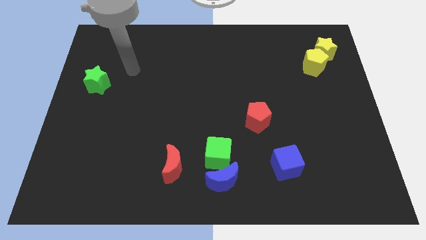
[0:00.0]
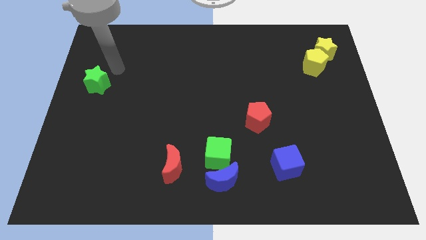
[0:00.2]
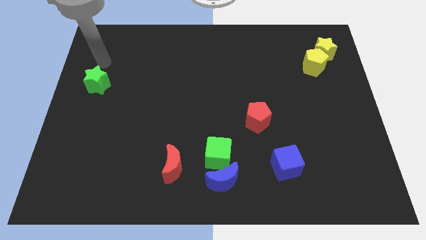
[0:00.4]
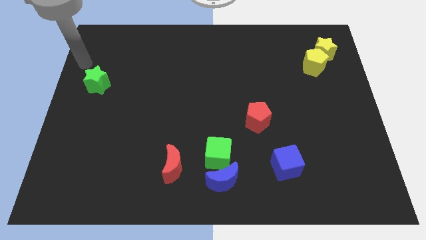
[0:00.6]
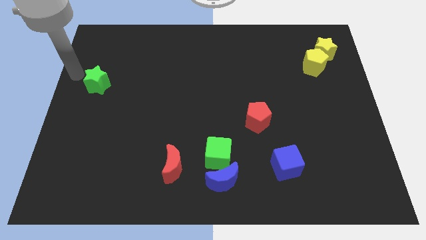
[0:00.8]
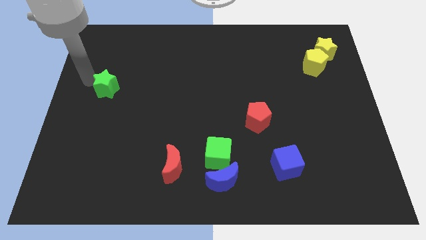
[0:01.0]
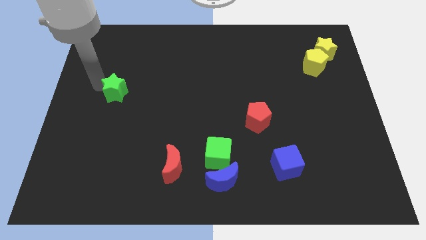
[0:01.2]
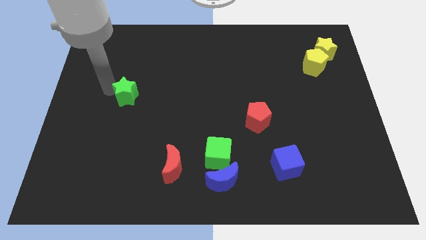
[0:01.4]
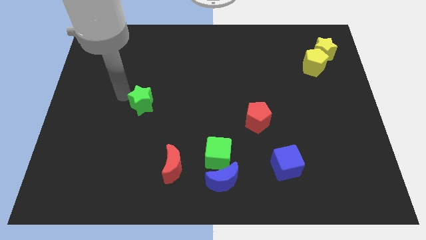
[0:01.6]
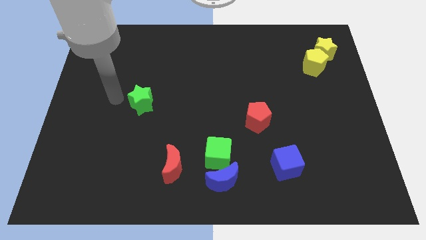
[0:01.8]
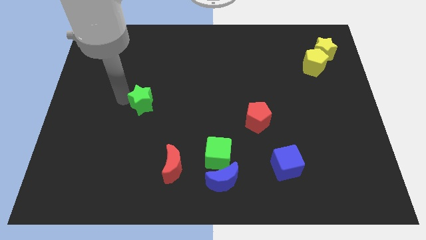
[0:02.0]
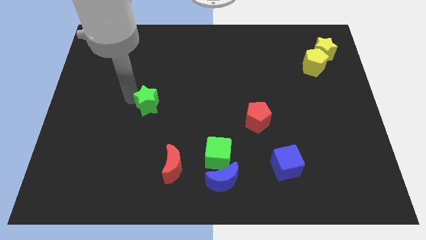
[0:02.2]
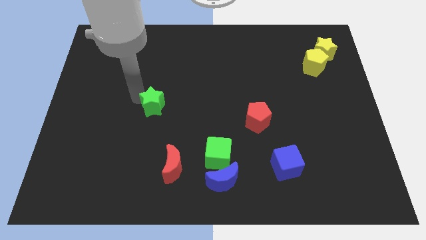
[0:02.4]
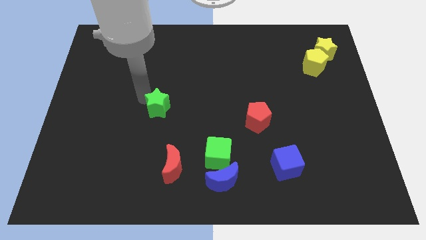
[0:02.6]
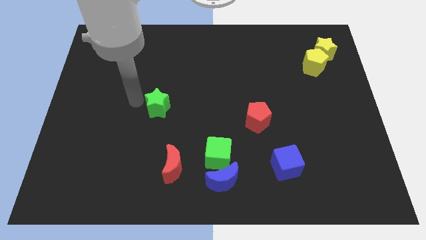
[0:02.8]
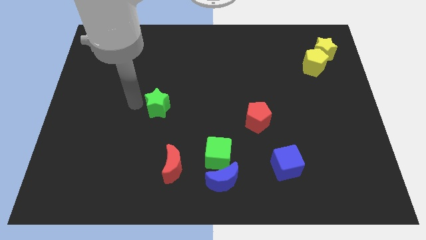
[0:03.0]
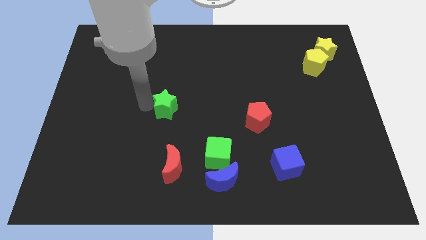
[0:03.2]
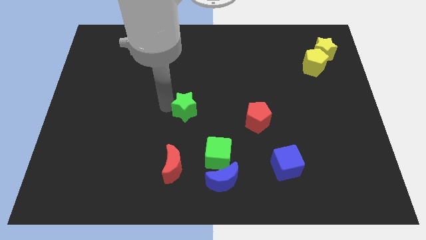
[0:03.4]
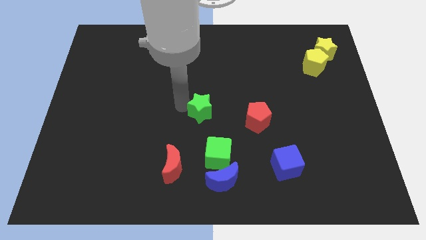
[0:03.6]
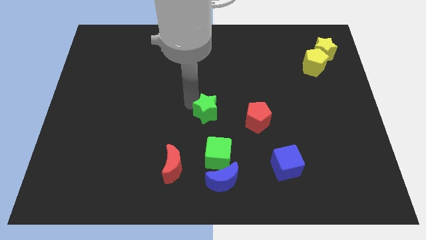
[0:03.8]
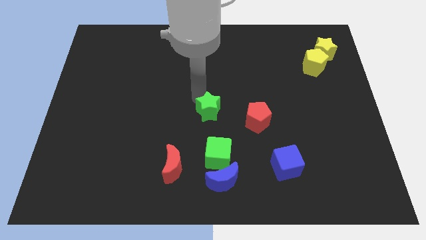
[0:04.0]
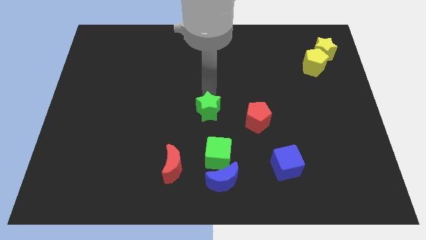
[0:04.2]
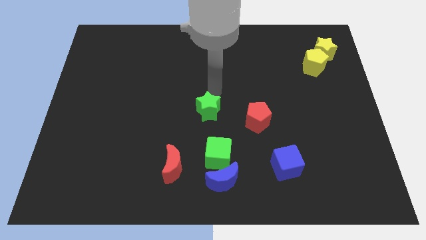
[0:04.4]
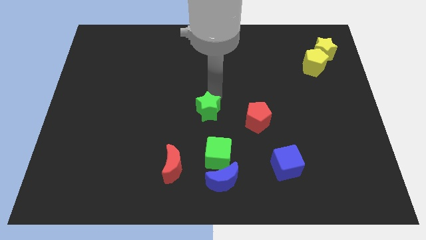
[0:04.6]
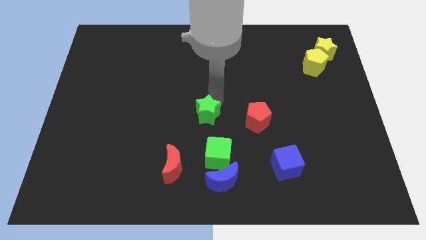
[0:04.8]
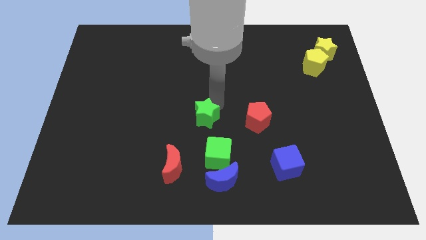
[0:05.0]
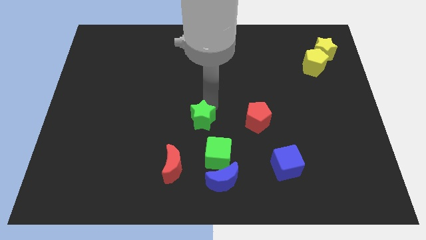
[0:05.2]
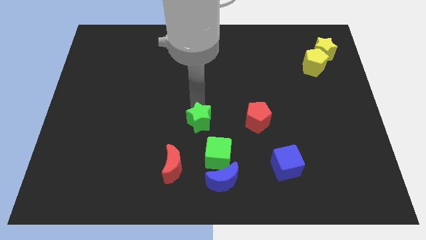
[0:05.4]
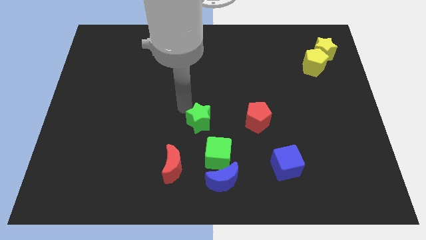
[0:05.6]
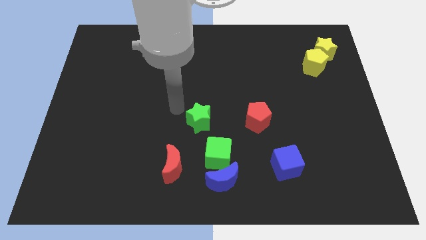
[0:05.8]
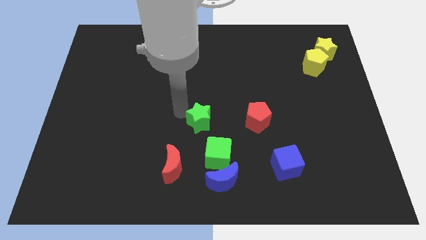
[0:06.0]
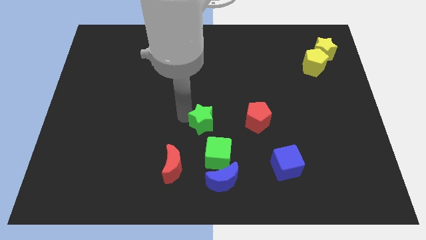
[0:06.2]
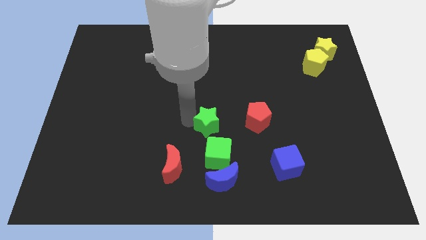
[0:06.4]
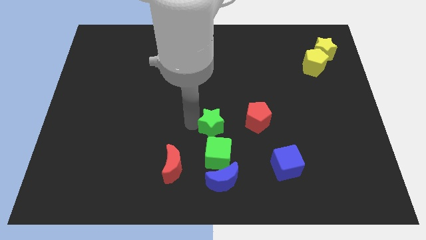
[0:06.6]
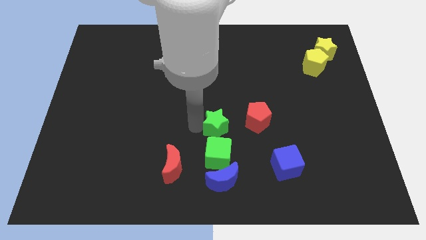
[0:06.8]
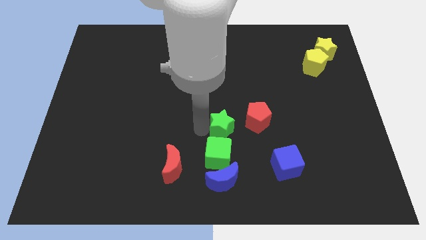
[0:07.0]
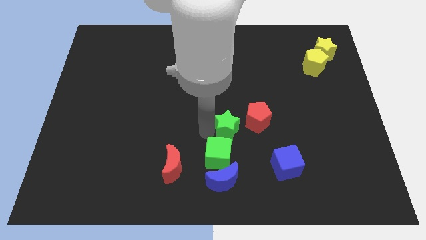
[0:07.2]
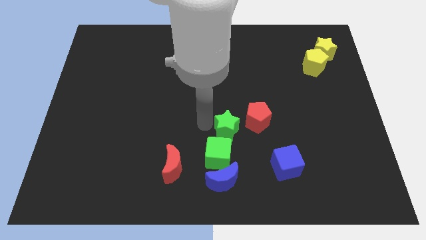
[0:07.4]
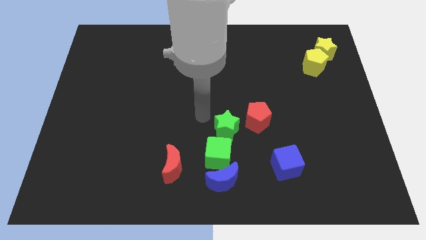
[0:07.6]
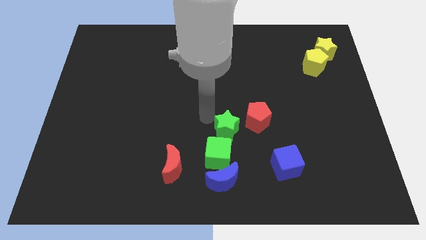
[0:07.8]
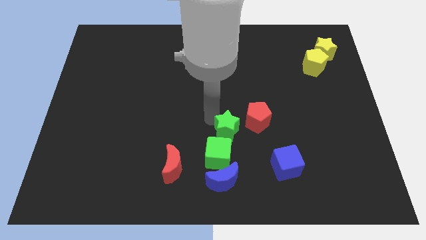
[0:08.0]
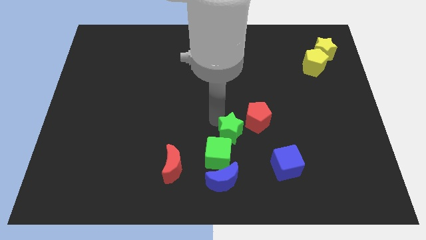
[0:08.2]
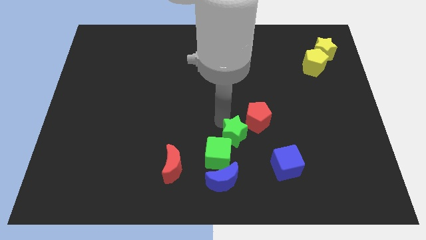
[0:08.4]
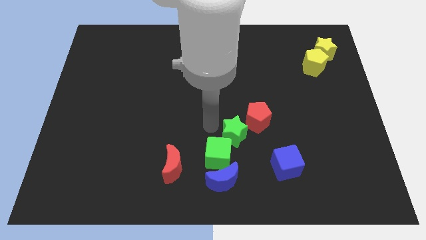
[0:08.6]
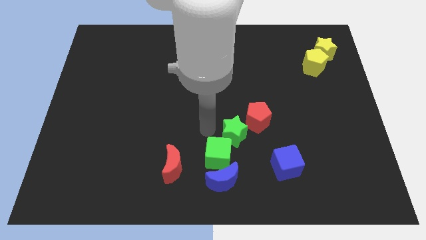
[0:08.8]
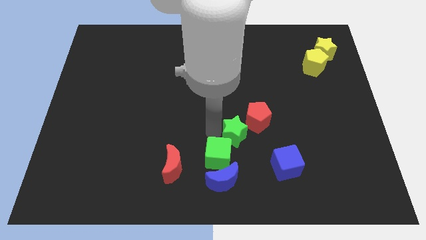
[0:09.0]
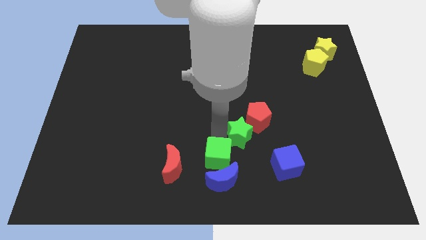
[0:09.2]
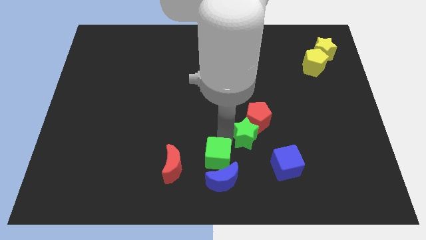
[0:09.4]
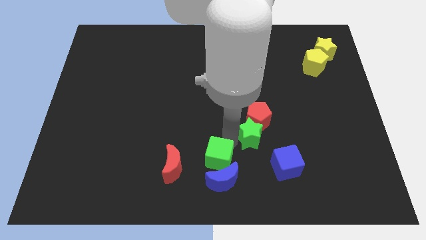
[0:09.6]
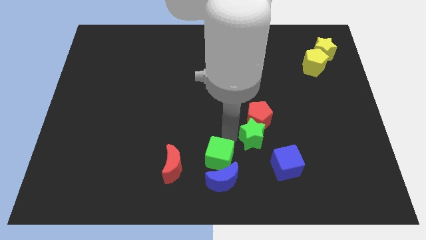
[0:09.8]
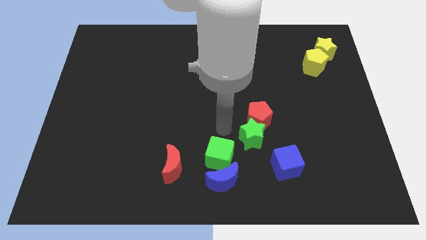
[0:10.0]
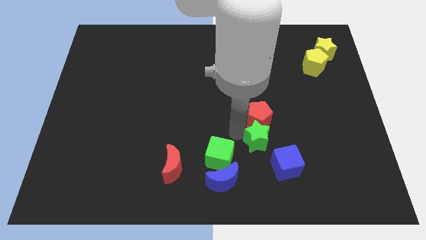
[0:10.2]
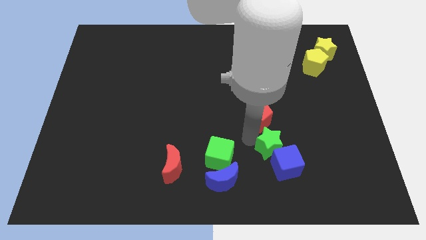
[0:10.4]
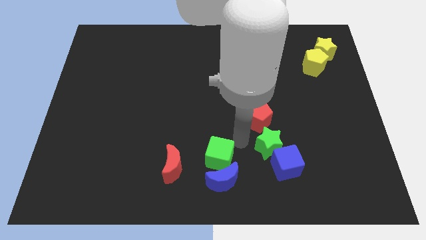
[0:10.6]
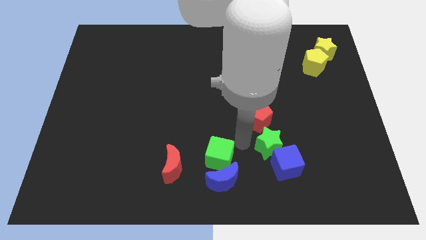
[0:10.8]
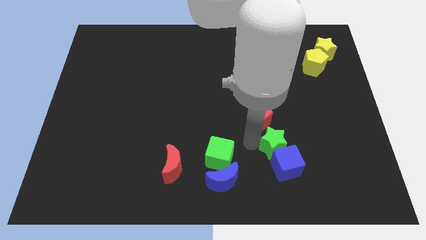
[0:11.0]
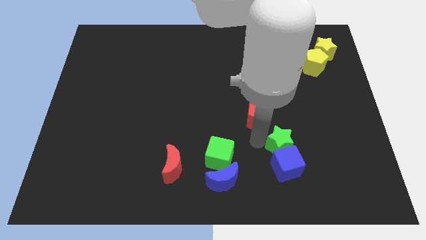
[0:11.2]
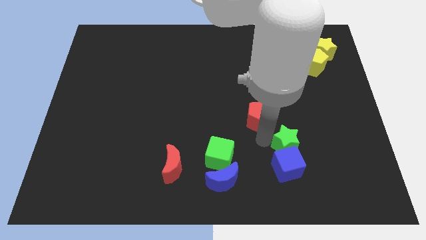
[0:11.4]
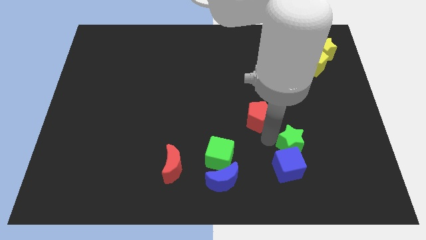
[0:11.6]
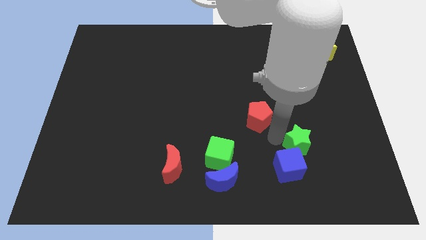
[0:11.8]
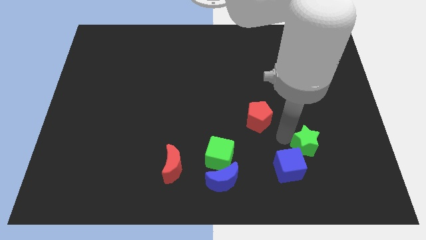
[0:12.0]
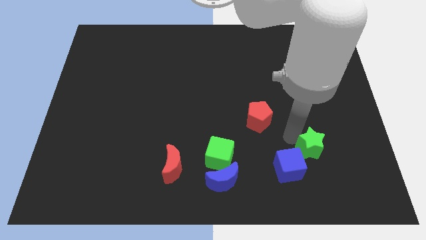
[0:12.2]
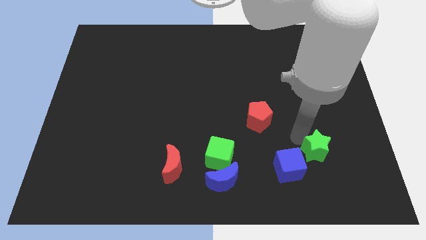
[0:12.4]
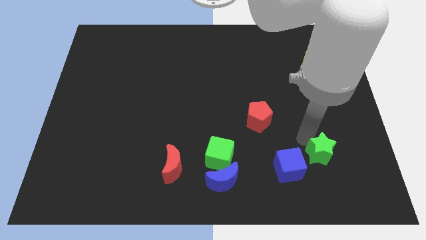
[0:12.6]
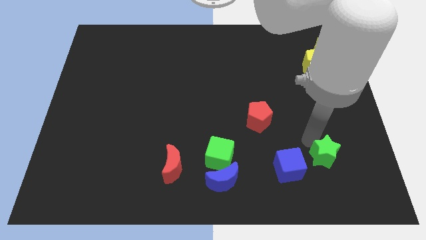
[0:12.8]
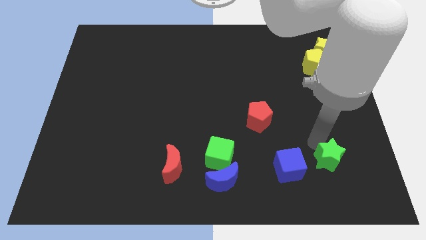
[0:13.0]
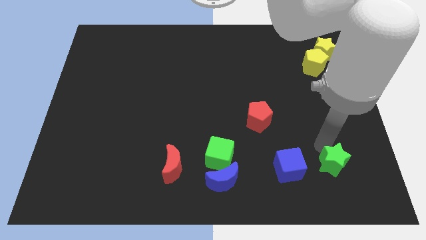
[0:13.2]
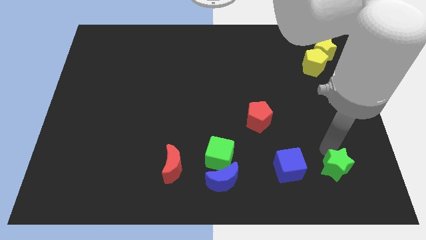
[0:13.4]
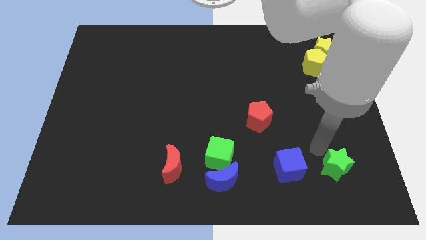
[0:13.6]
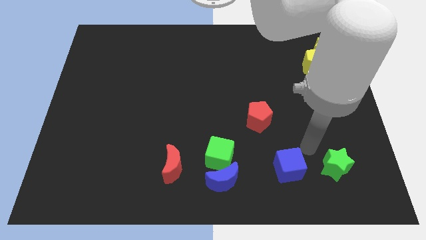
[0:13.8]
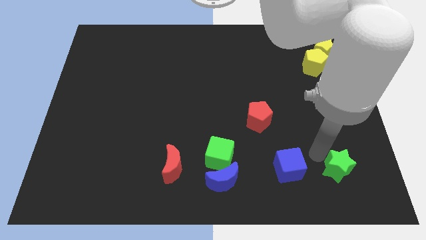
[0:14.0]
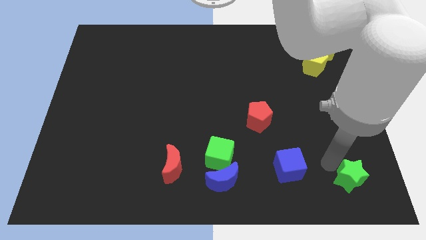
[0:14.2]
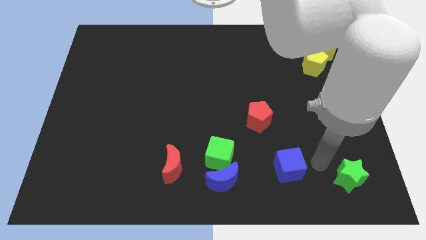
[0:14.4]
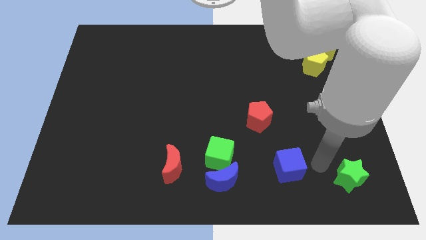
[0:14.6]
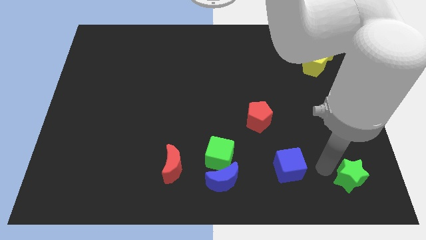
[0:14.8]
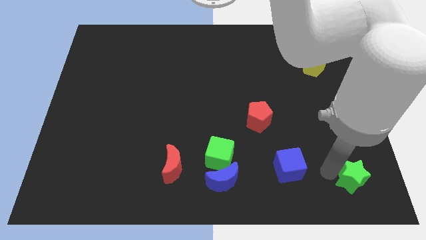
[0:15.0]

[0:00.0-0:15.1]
move the green star to the bottom right of the board
